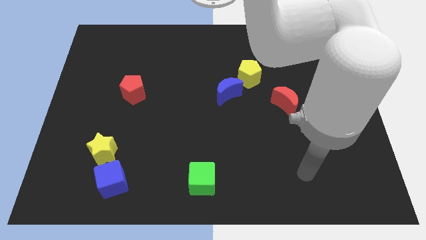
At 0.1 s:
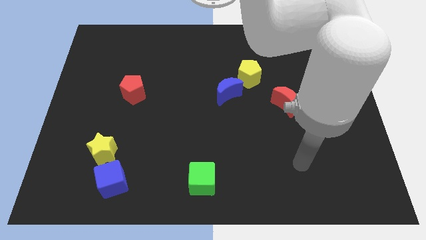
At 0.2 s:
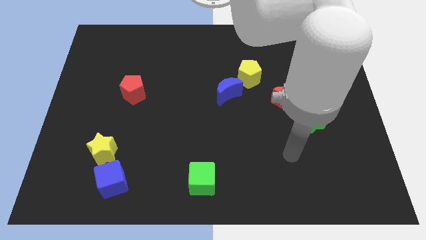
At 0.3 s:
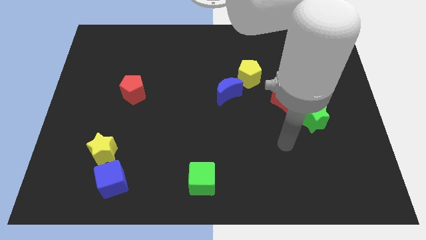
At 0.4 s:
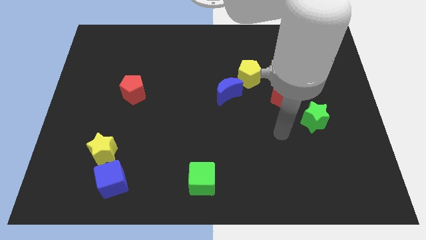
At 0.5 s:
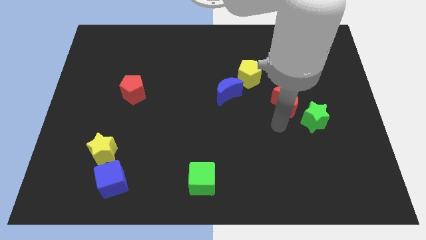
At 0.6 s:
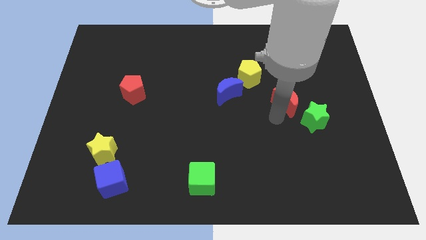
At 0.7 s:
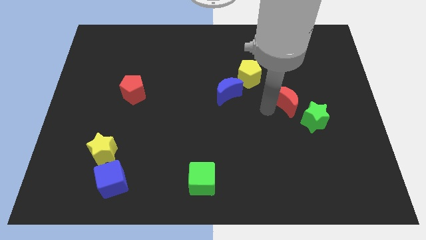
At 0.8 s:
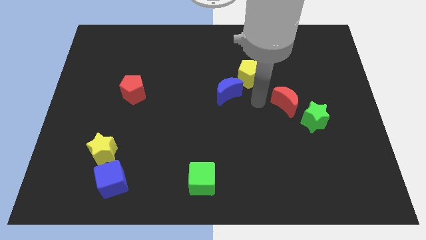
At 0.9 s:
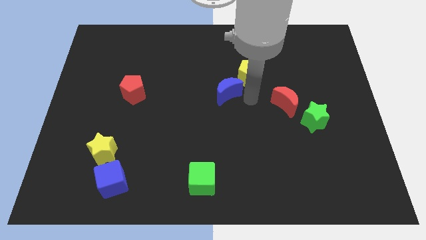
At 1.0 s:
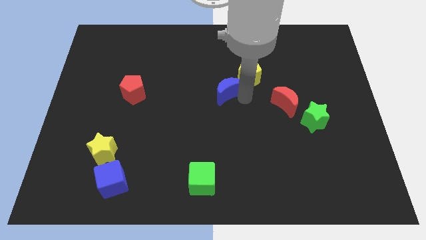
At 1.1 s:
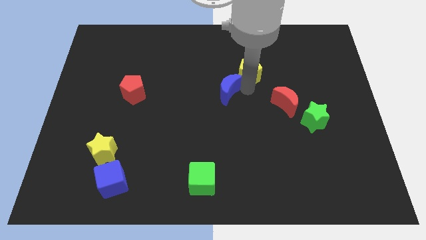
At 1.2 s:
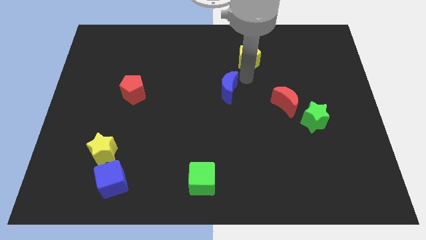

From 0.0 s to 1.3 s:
separate the blue moon from the yellow pentagon

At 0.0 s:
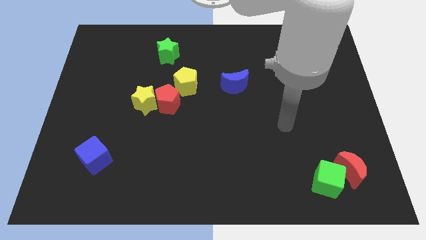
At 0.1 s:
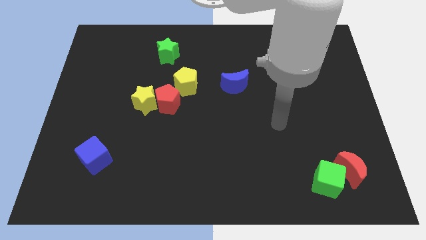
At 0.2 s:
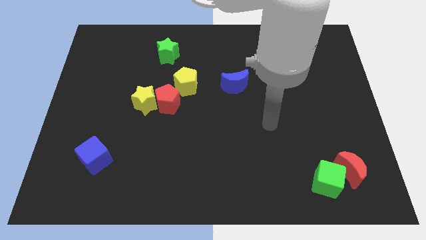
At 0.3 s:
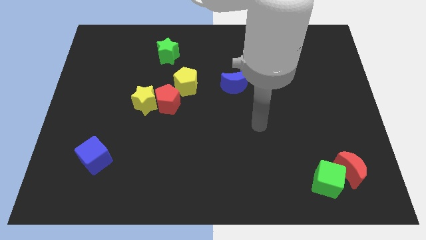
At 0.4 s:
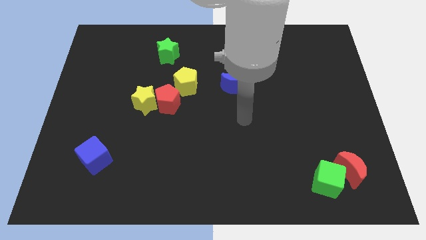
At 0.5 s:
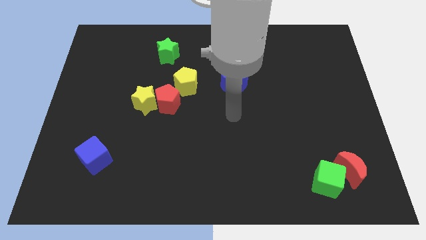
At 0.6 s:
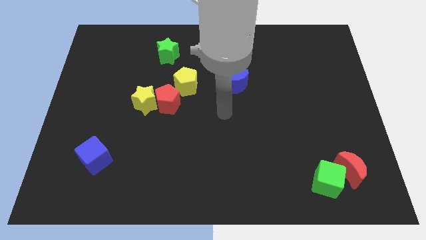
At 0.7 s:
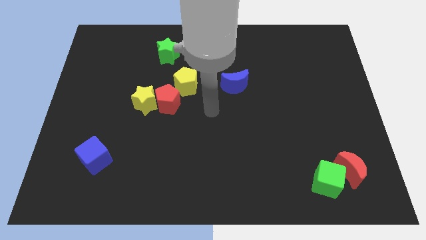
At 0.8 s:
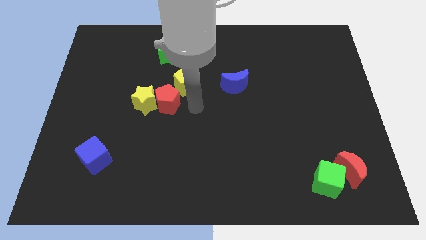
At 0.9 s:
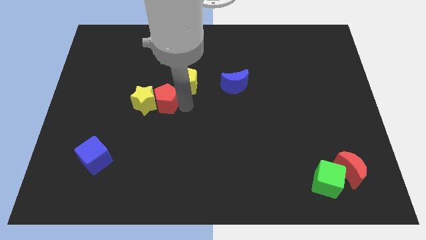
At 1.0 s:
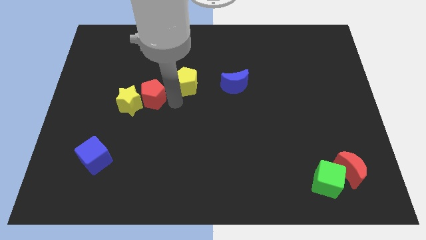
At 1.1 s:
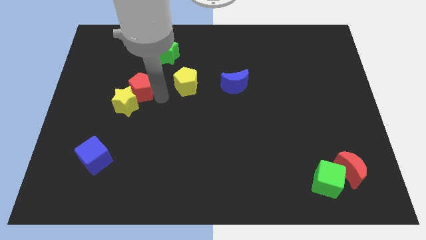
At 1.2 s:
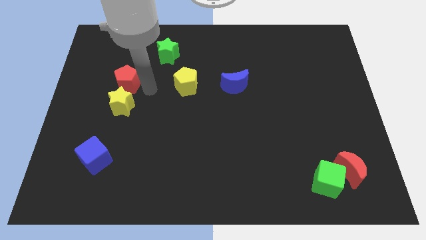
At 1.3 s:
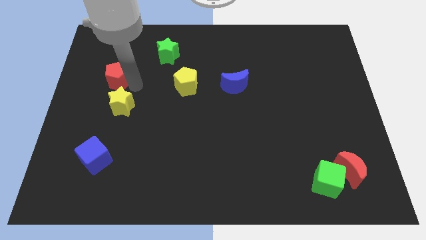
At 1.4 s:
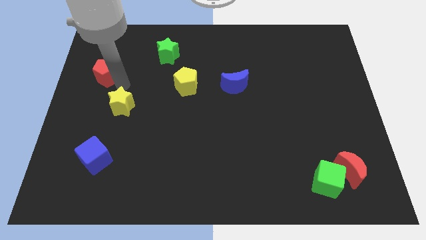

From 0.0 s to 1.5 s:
move the yellow star away from the red pentagon

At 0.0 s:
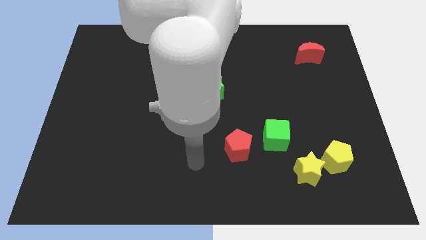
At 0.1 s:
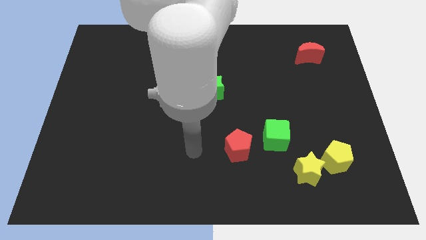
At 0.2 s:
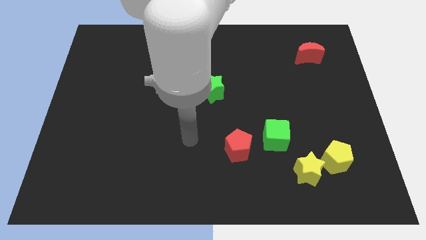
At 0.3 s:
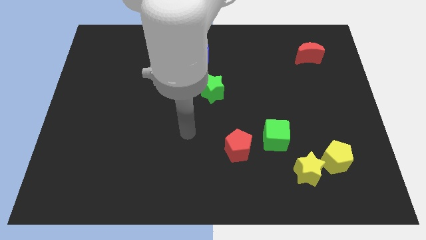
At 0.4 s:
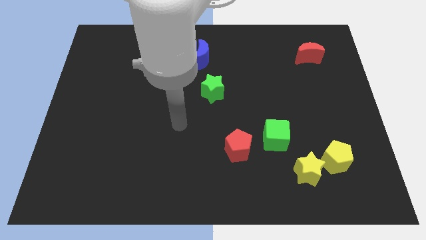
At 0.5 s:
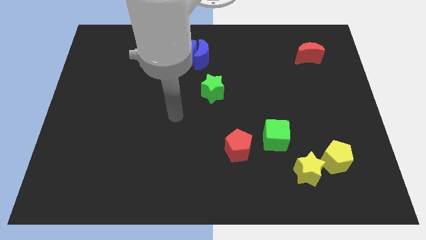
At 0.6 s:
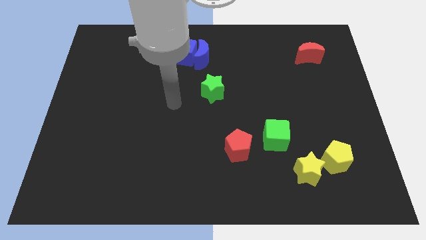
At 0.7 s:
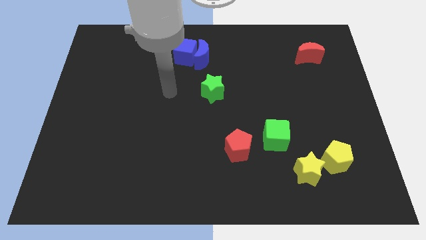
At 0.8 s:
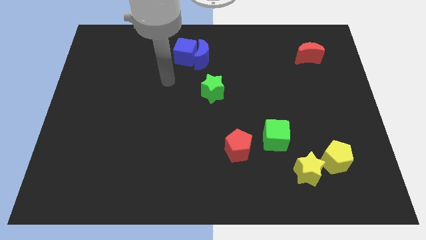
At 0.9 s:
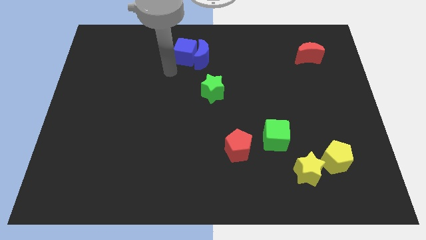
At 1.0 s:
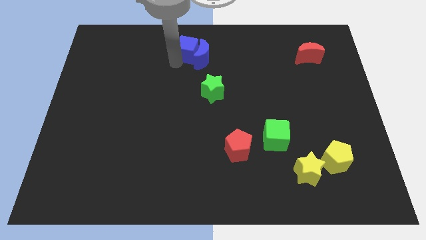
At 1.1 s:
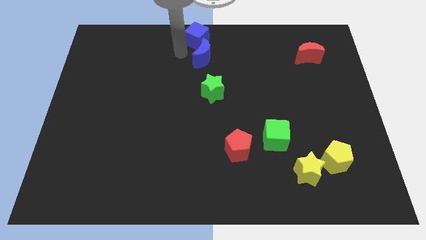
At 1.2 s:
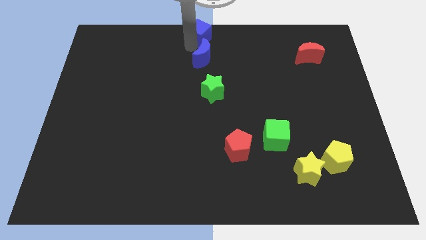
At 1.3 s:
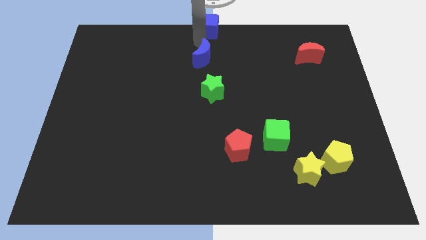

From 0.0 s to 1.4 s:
move the blue moon away from the blue cube

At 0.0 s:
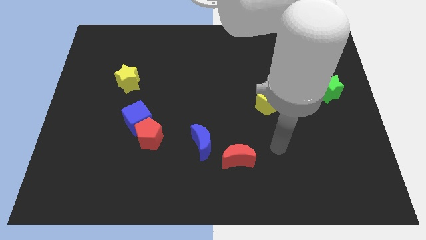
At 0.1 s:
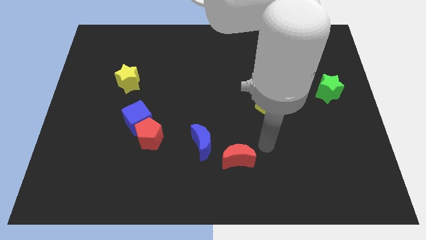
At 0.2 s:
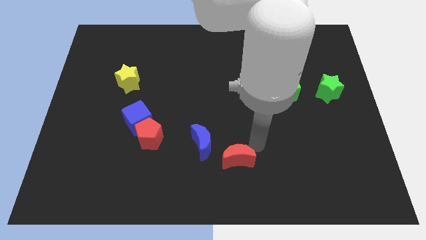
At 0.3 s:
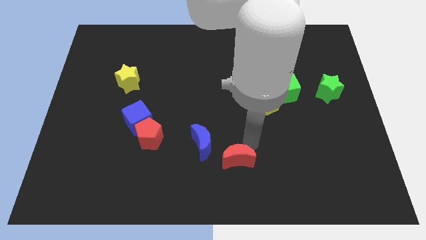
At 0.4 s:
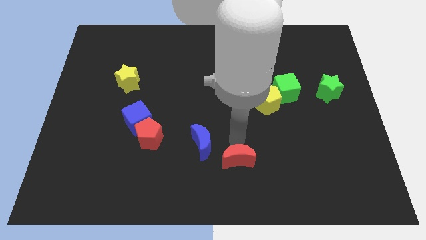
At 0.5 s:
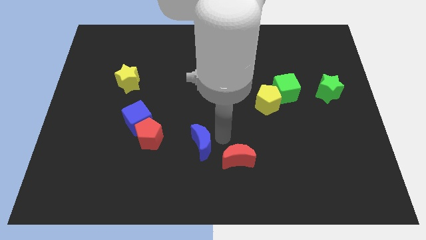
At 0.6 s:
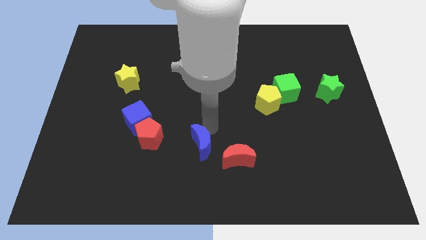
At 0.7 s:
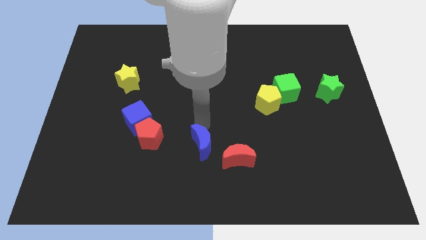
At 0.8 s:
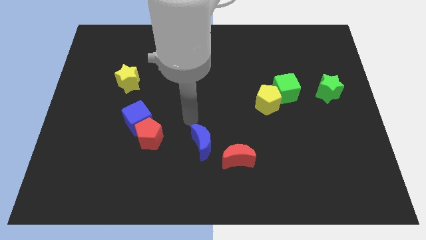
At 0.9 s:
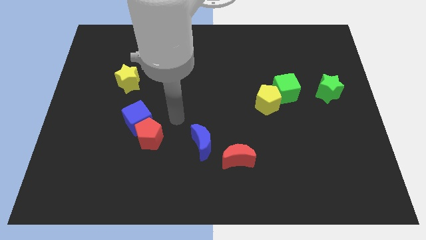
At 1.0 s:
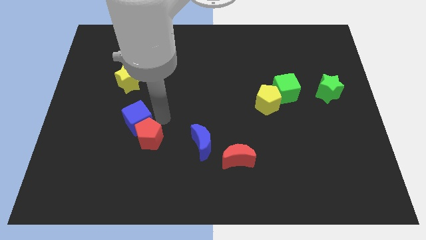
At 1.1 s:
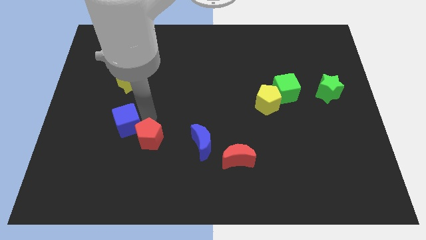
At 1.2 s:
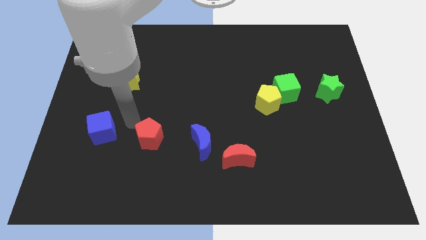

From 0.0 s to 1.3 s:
pull the red pentagon apart from the blue cube

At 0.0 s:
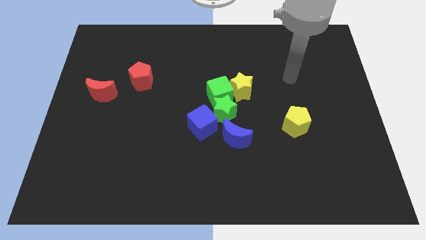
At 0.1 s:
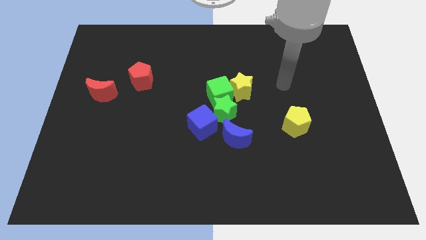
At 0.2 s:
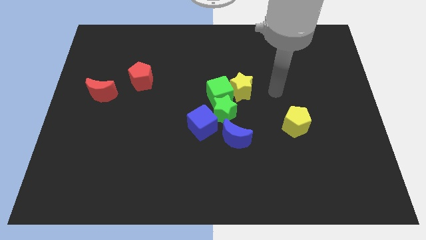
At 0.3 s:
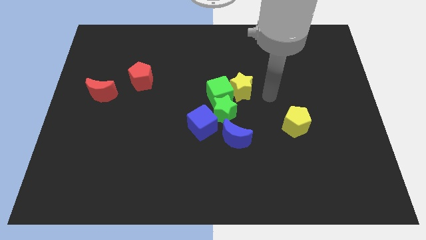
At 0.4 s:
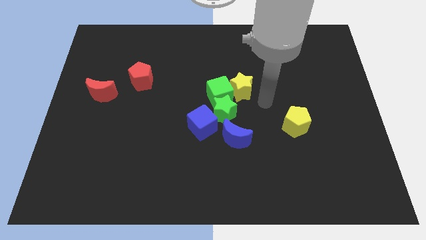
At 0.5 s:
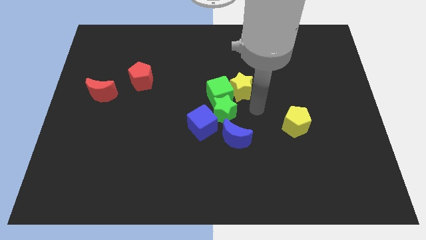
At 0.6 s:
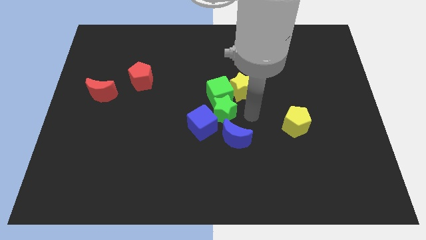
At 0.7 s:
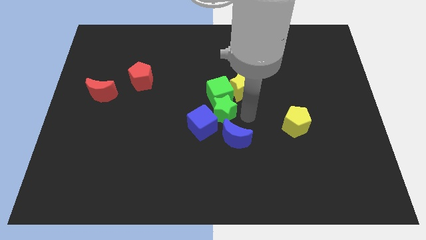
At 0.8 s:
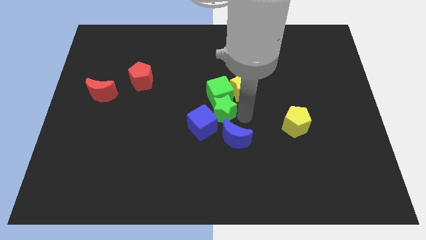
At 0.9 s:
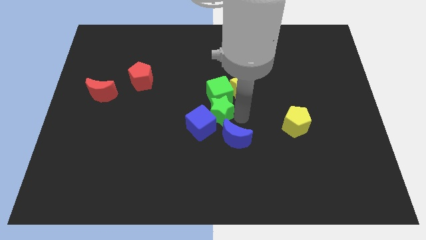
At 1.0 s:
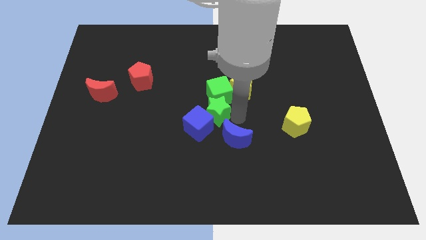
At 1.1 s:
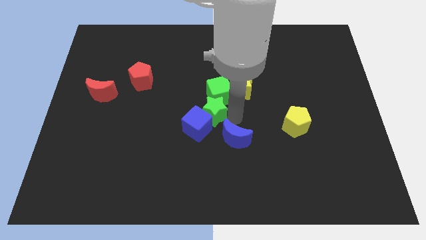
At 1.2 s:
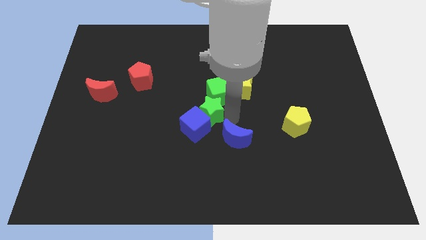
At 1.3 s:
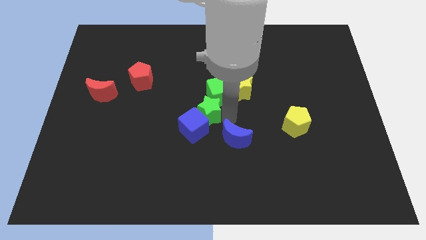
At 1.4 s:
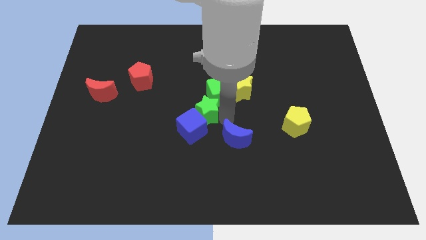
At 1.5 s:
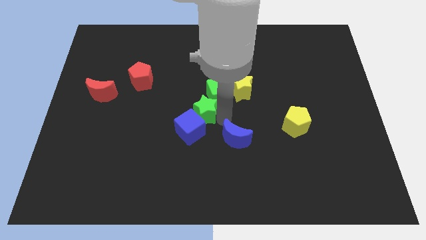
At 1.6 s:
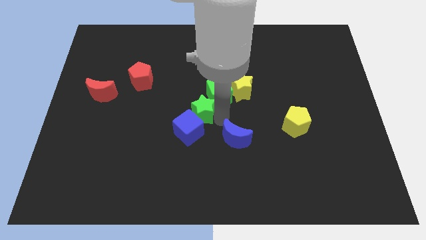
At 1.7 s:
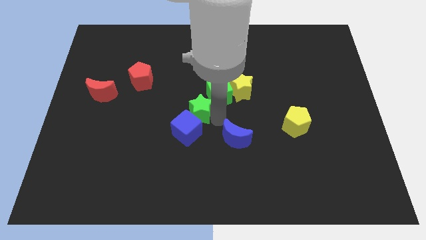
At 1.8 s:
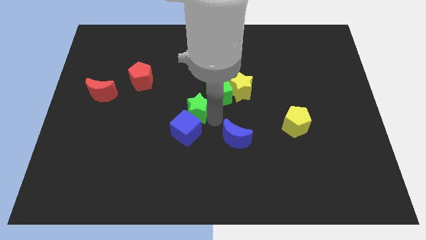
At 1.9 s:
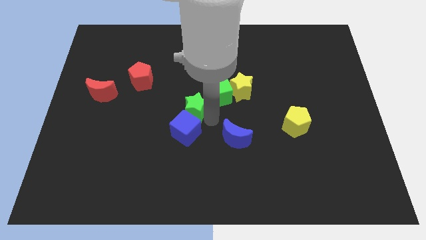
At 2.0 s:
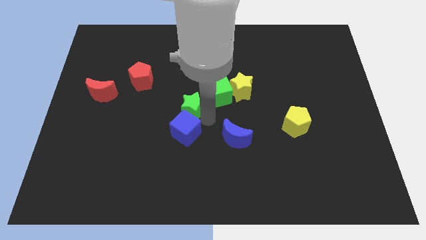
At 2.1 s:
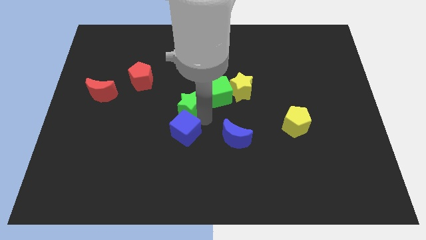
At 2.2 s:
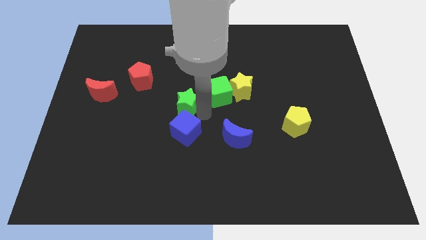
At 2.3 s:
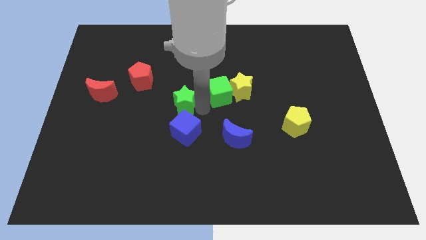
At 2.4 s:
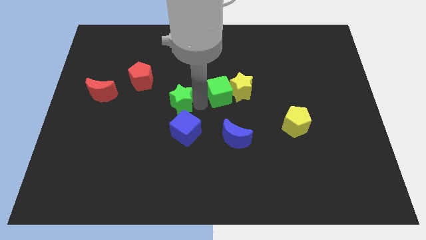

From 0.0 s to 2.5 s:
move the green star away from the clump

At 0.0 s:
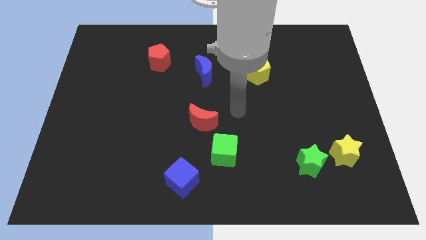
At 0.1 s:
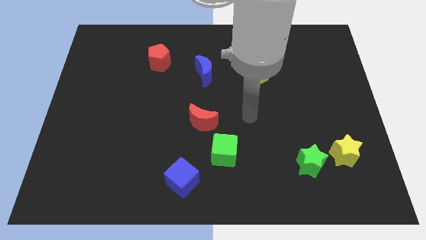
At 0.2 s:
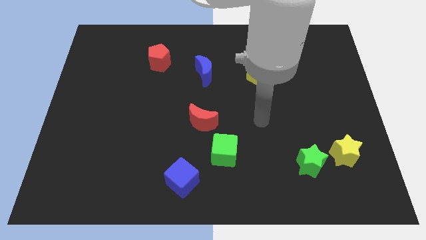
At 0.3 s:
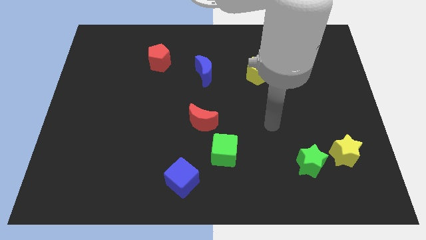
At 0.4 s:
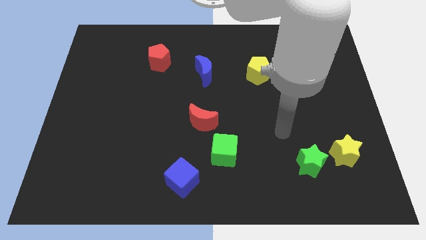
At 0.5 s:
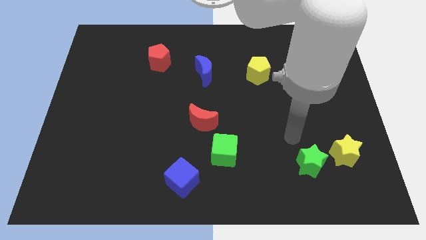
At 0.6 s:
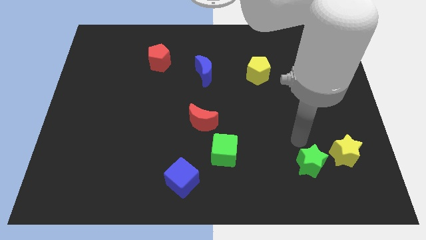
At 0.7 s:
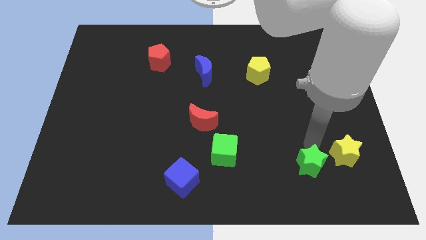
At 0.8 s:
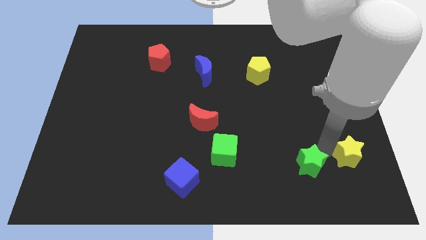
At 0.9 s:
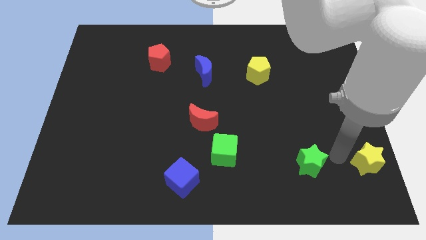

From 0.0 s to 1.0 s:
move the green star away from the yellow star

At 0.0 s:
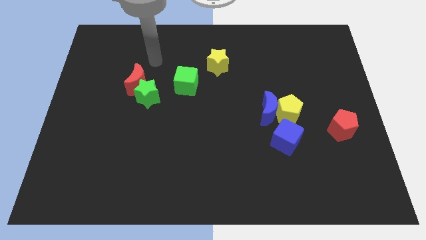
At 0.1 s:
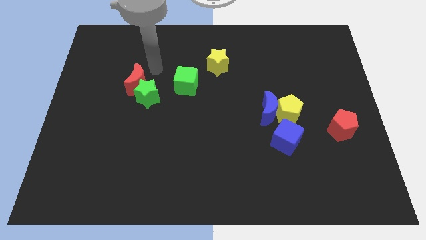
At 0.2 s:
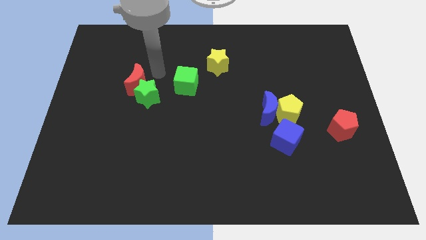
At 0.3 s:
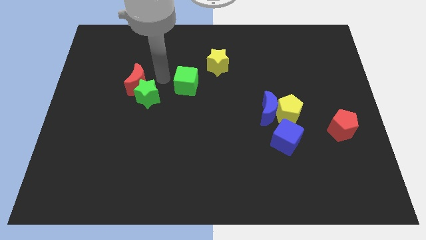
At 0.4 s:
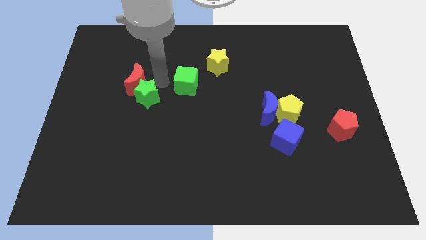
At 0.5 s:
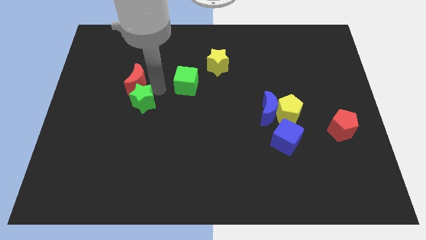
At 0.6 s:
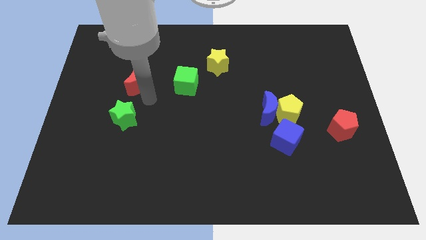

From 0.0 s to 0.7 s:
move the red moon away from the green star
